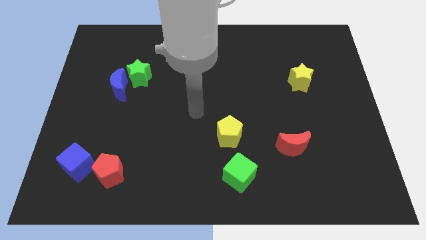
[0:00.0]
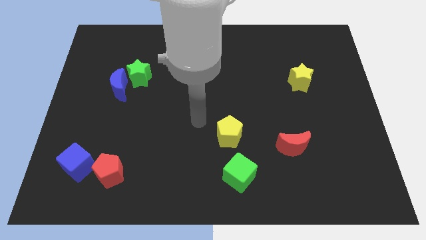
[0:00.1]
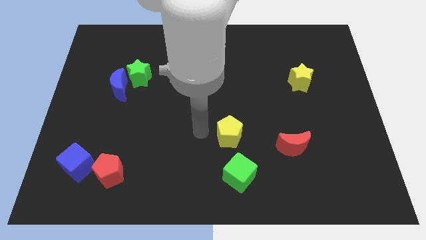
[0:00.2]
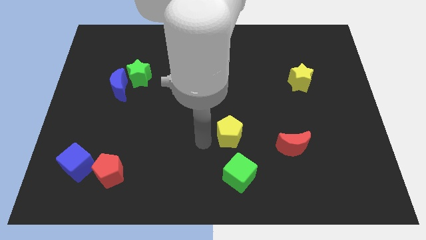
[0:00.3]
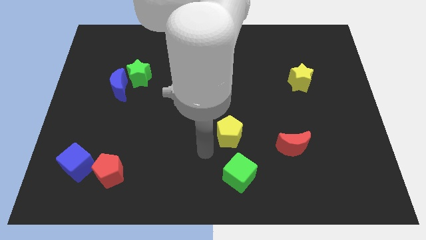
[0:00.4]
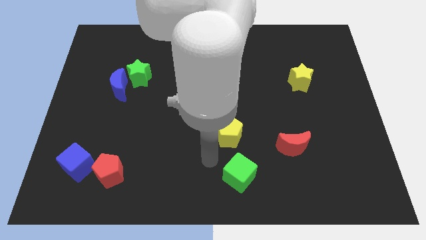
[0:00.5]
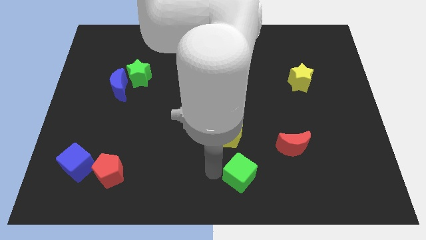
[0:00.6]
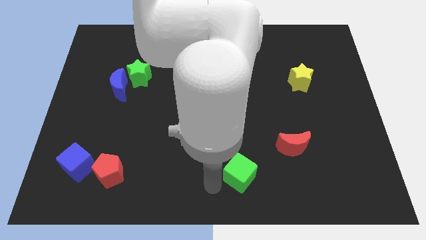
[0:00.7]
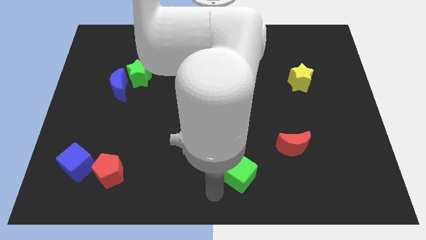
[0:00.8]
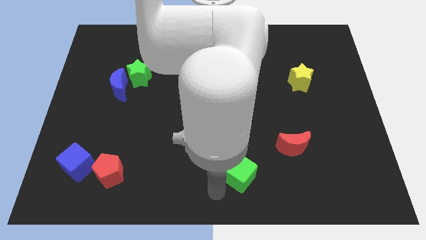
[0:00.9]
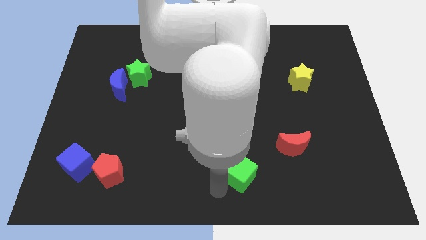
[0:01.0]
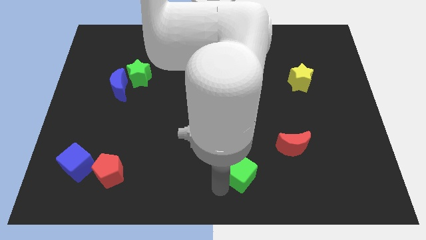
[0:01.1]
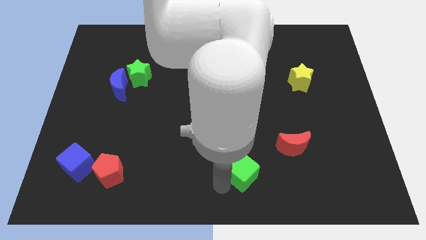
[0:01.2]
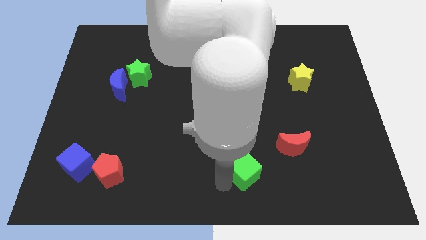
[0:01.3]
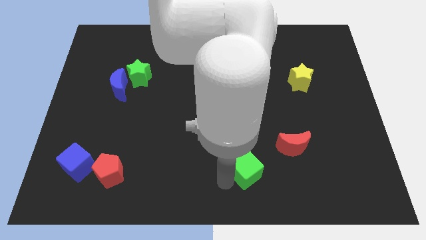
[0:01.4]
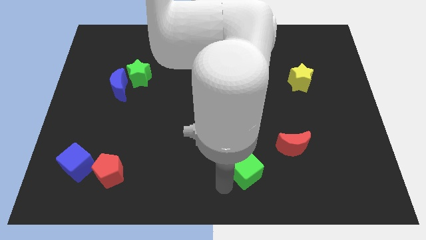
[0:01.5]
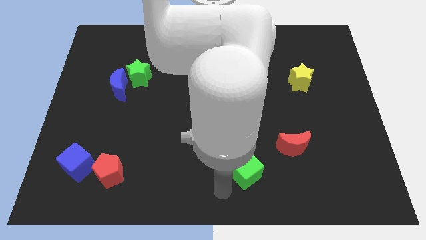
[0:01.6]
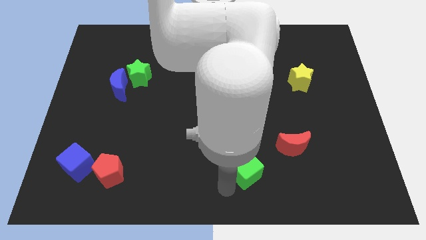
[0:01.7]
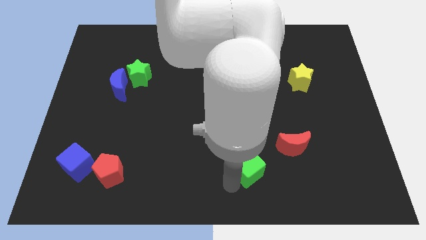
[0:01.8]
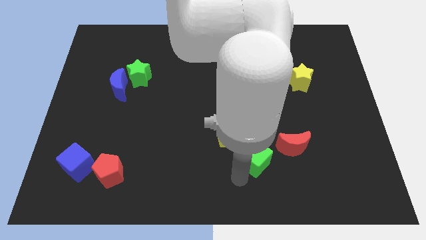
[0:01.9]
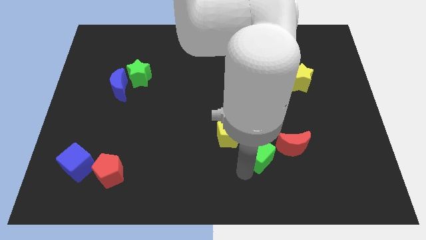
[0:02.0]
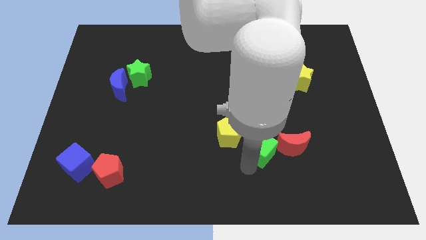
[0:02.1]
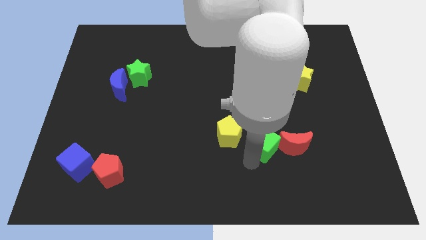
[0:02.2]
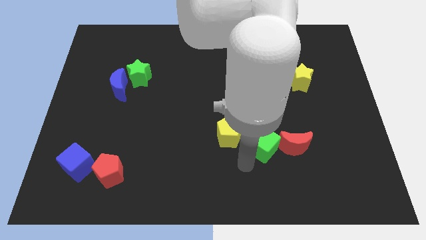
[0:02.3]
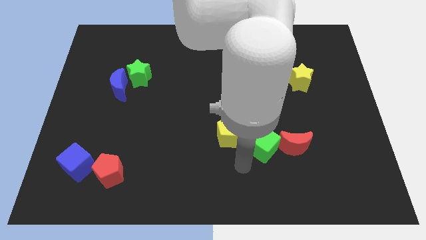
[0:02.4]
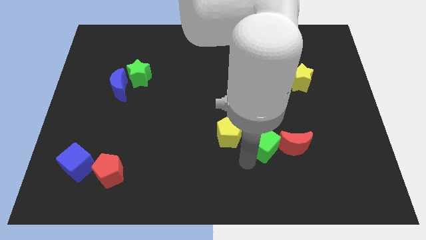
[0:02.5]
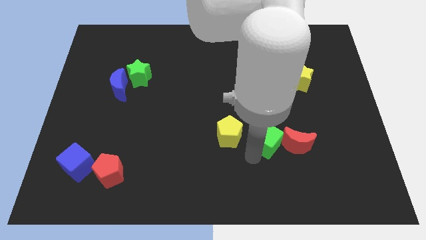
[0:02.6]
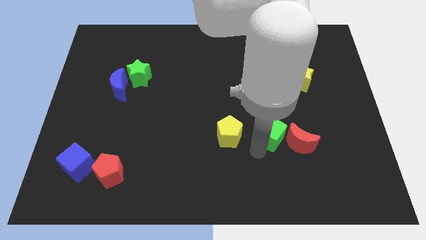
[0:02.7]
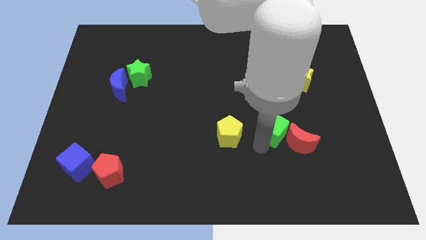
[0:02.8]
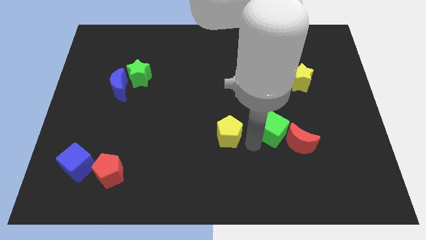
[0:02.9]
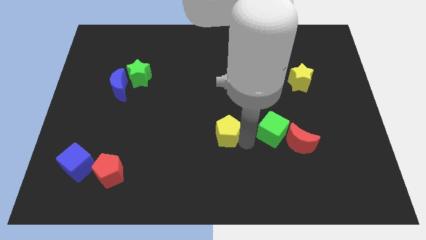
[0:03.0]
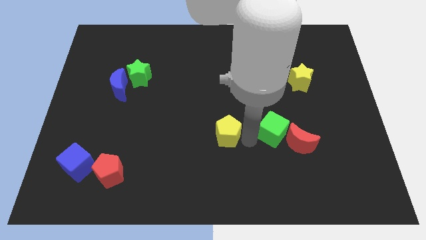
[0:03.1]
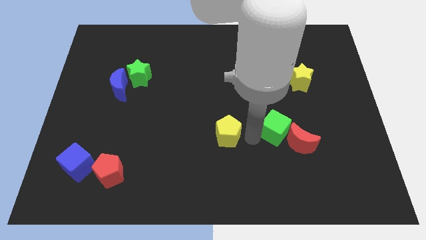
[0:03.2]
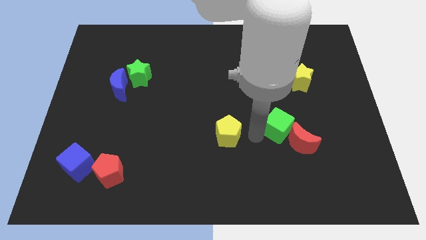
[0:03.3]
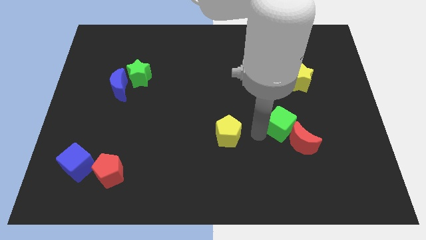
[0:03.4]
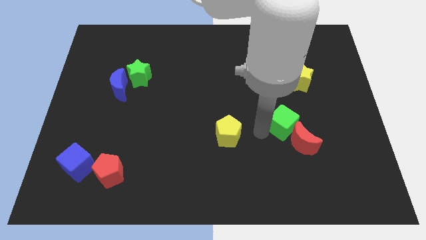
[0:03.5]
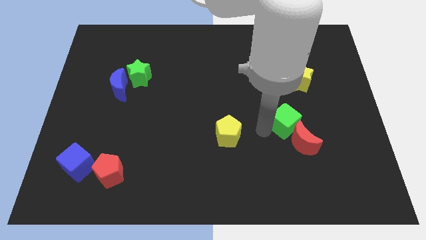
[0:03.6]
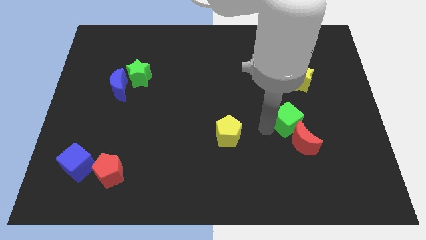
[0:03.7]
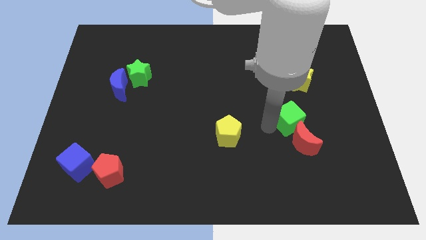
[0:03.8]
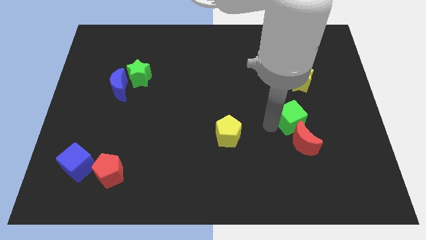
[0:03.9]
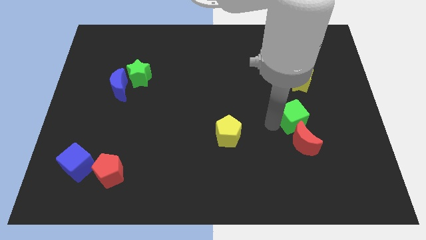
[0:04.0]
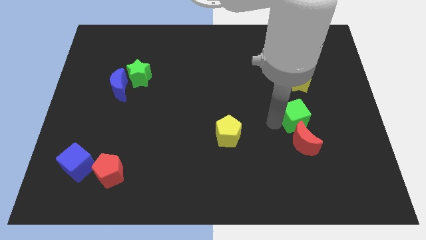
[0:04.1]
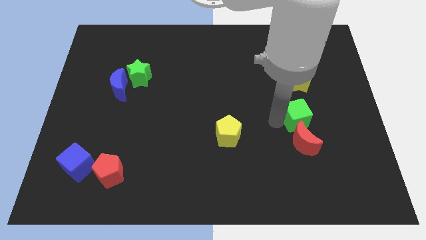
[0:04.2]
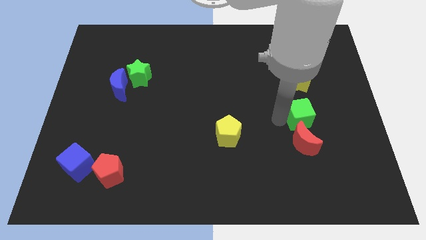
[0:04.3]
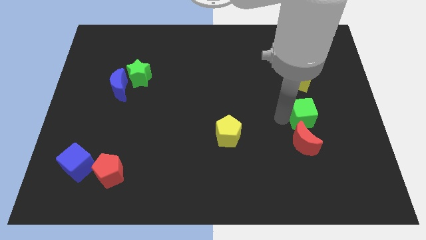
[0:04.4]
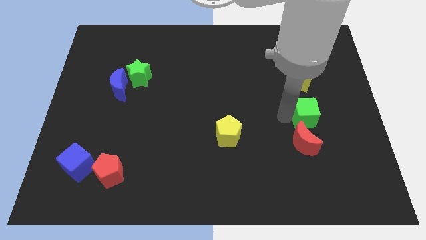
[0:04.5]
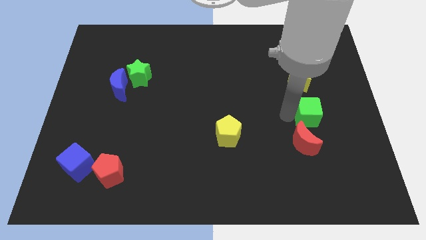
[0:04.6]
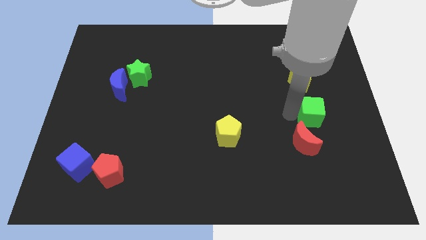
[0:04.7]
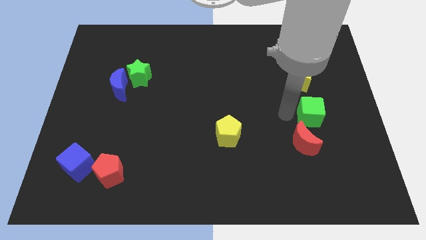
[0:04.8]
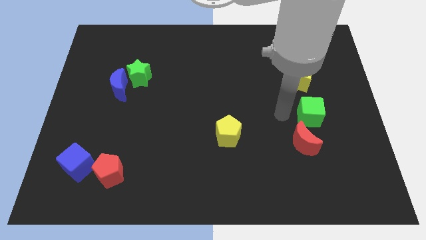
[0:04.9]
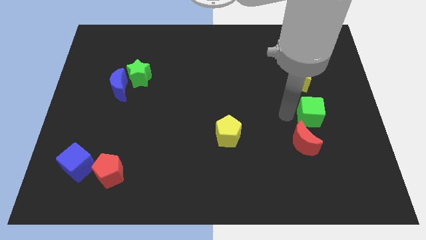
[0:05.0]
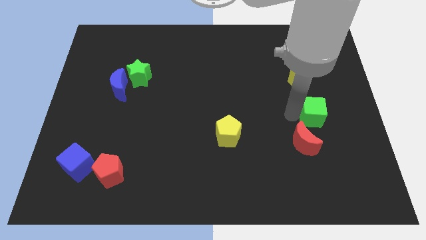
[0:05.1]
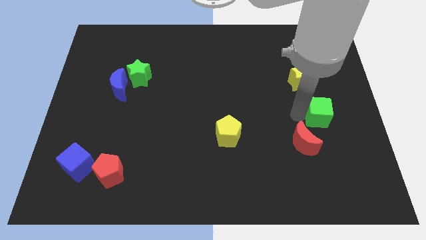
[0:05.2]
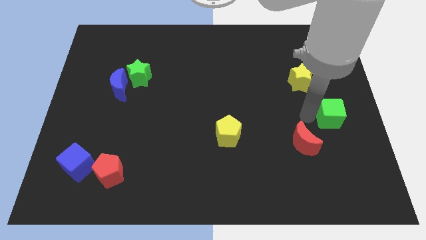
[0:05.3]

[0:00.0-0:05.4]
slide the green cube to the right side
